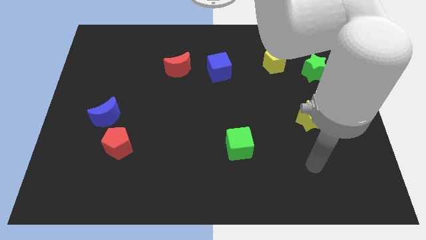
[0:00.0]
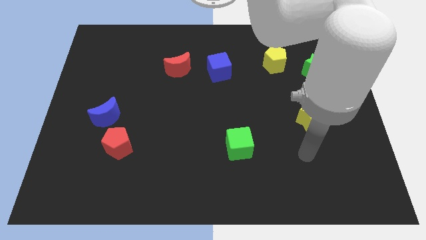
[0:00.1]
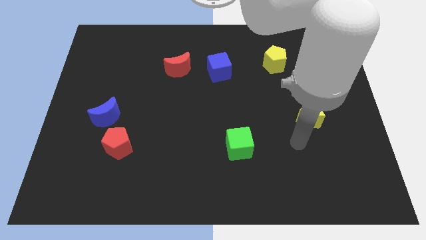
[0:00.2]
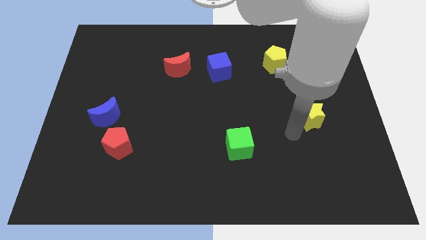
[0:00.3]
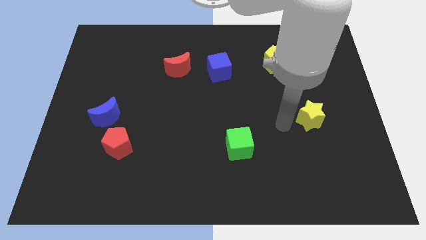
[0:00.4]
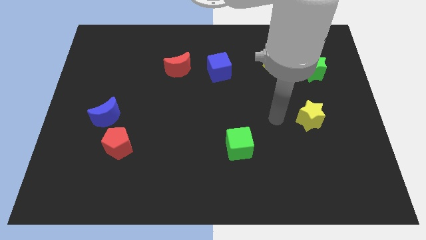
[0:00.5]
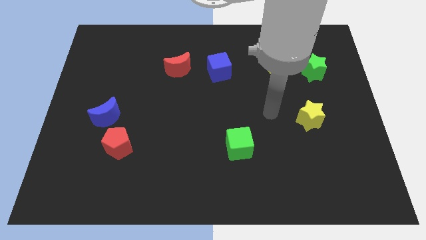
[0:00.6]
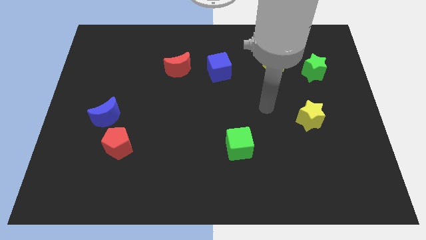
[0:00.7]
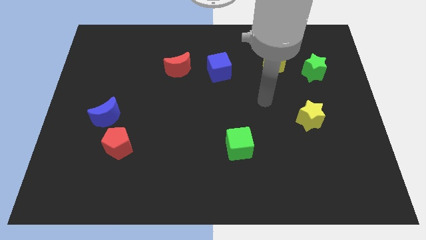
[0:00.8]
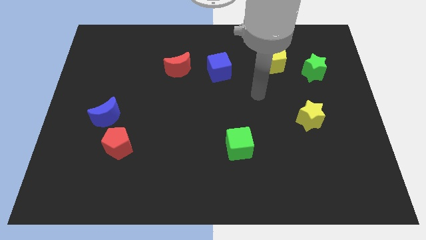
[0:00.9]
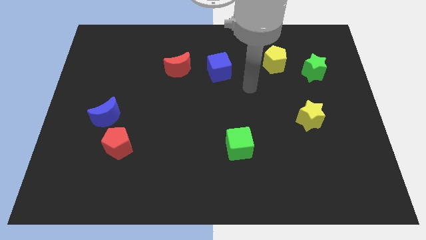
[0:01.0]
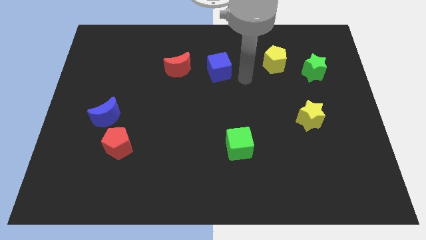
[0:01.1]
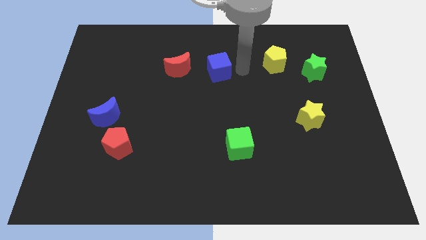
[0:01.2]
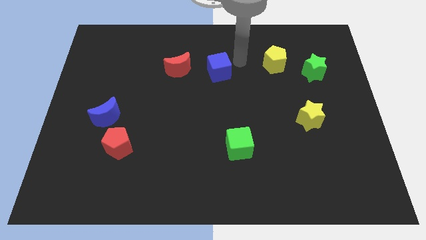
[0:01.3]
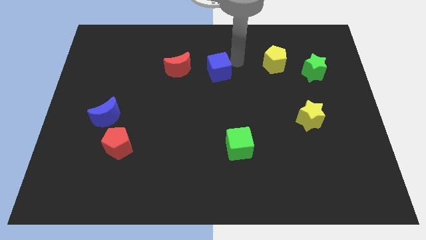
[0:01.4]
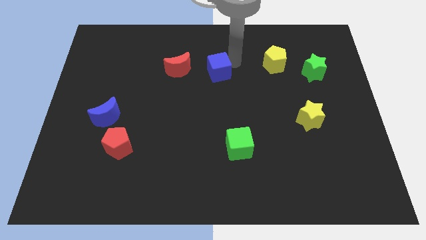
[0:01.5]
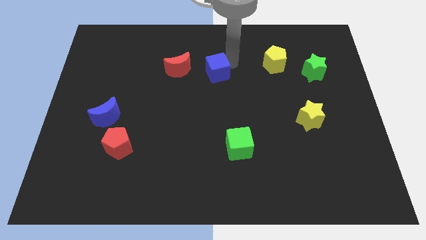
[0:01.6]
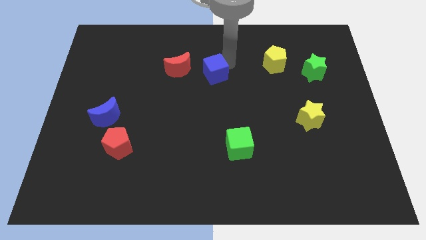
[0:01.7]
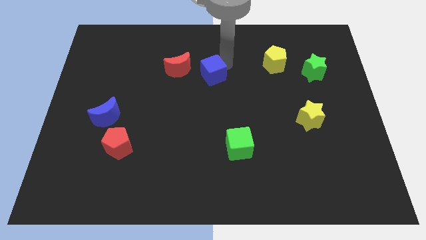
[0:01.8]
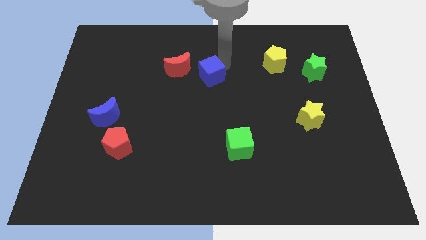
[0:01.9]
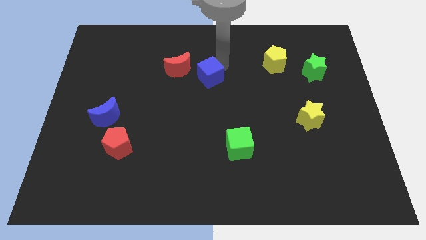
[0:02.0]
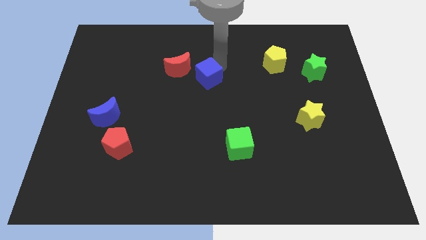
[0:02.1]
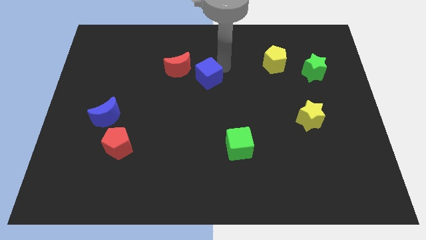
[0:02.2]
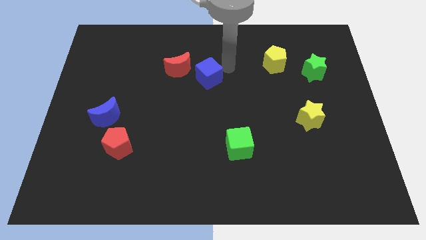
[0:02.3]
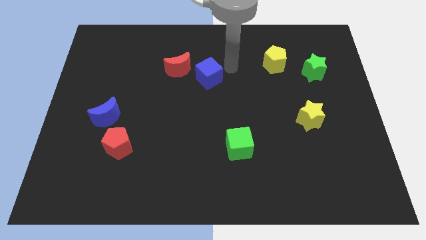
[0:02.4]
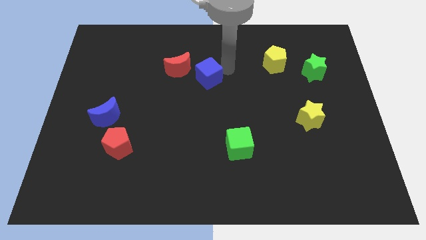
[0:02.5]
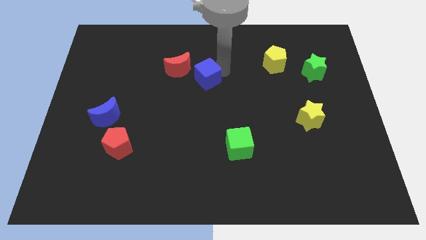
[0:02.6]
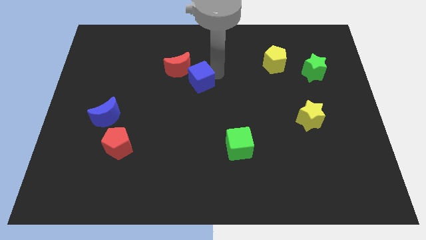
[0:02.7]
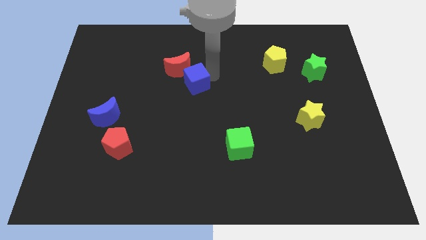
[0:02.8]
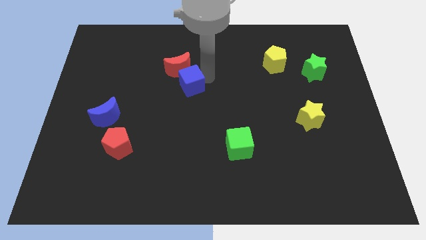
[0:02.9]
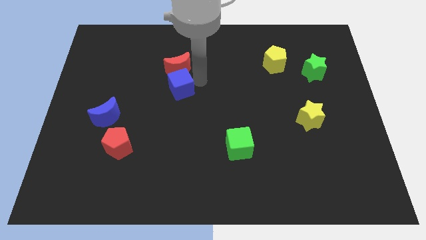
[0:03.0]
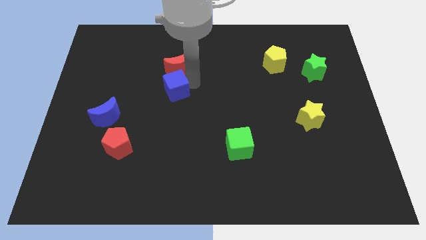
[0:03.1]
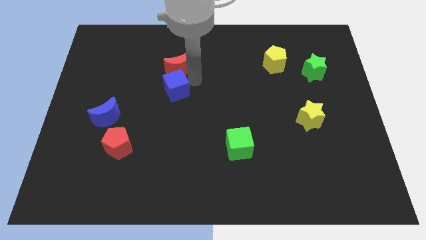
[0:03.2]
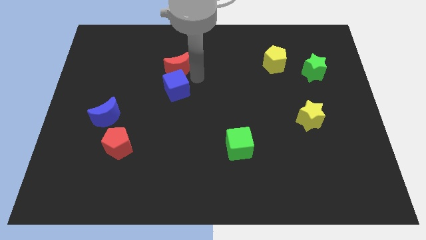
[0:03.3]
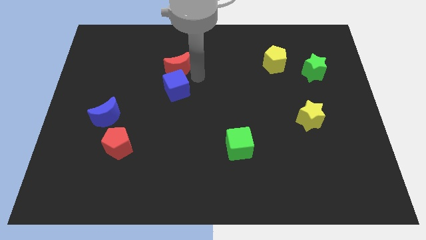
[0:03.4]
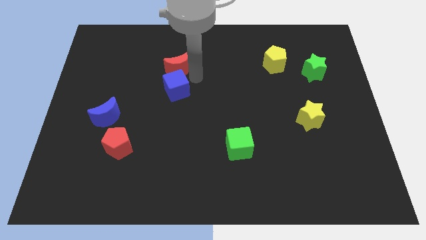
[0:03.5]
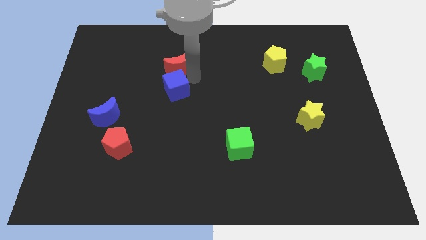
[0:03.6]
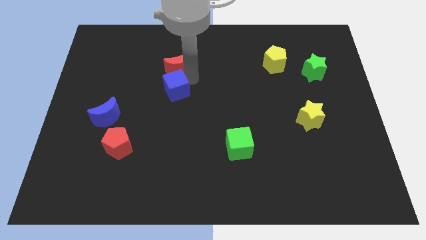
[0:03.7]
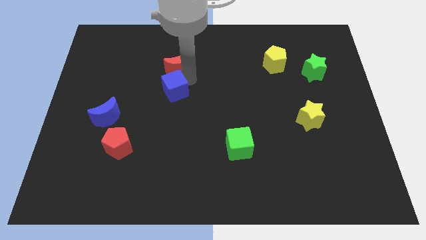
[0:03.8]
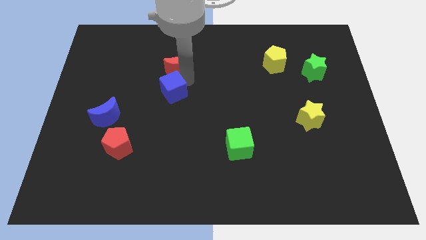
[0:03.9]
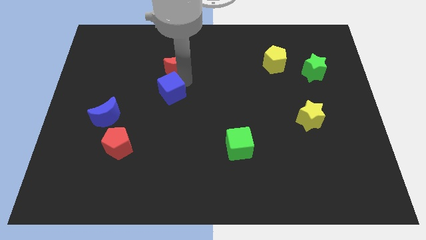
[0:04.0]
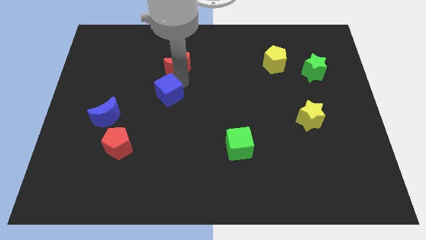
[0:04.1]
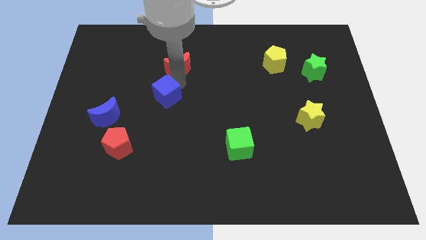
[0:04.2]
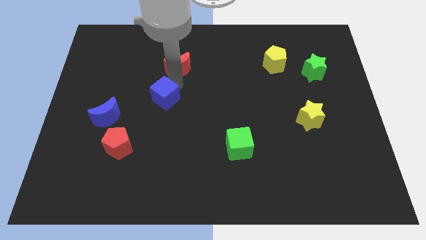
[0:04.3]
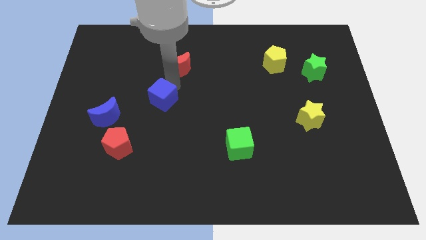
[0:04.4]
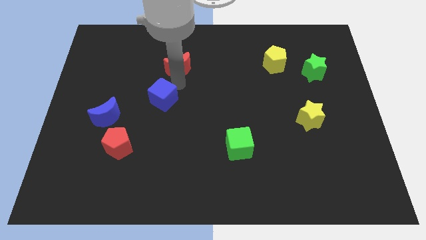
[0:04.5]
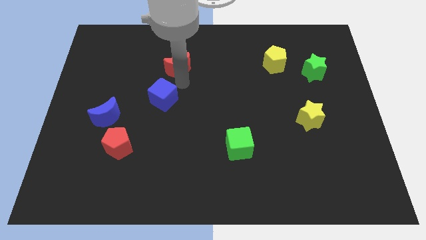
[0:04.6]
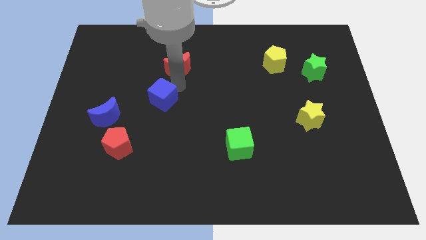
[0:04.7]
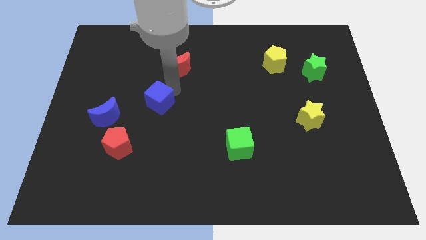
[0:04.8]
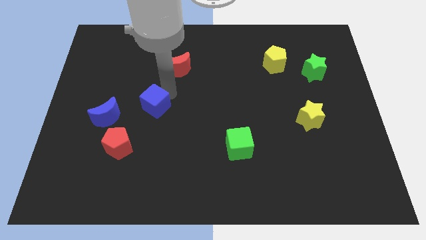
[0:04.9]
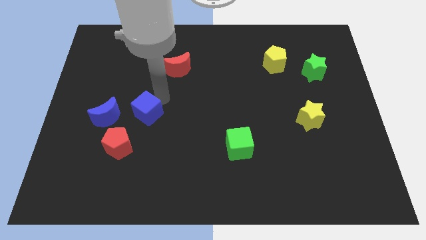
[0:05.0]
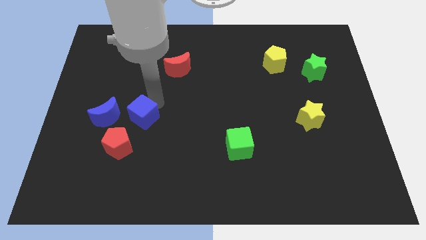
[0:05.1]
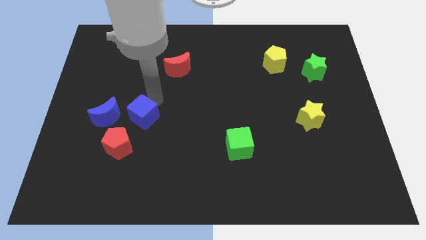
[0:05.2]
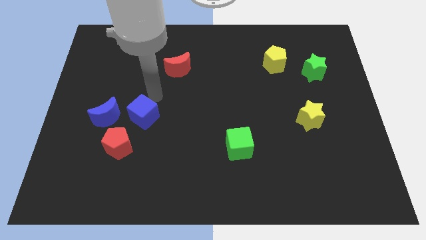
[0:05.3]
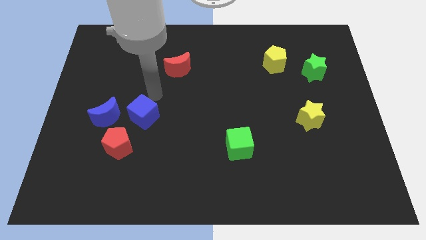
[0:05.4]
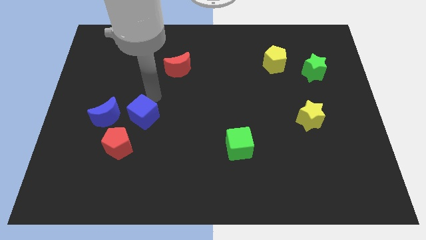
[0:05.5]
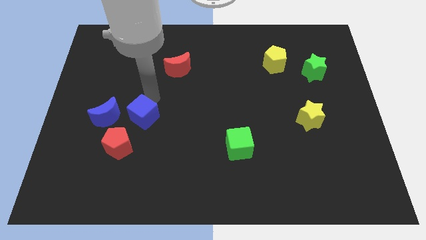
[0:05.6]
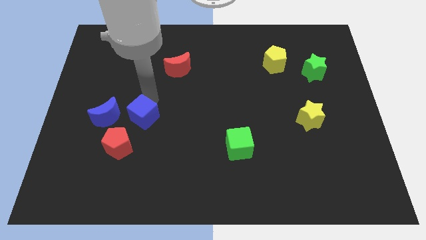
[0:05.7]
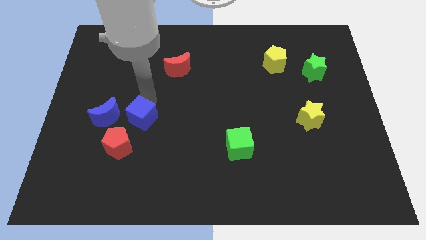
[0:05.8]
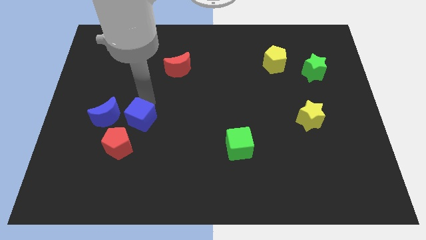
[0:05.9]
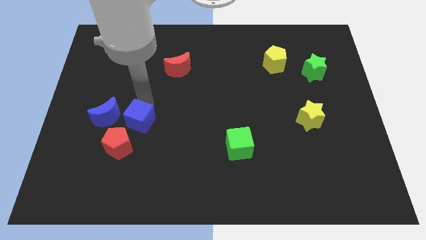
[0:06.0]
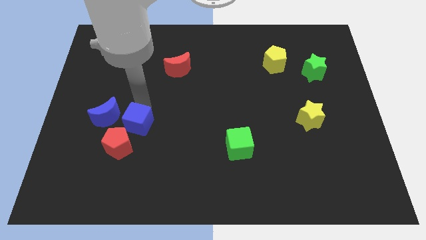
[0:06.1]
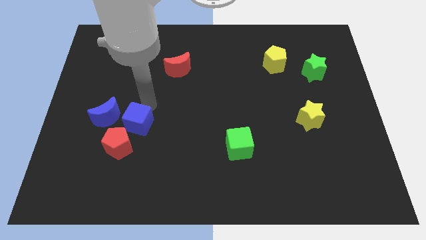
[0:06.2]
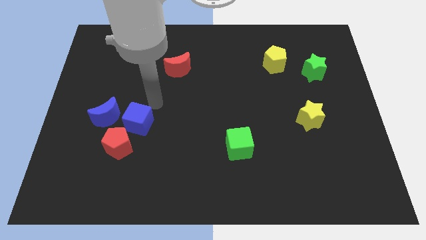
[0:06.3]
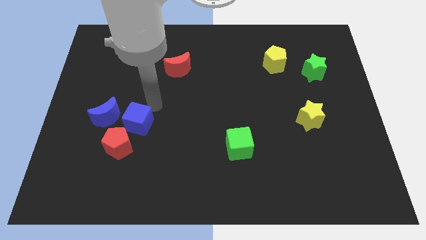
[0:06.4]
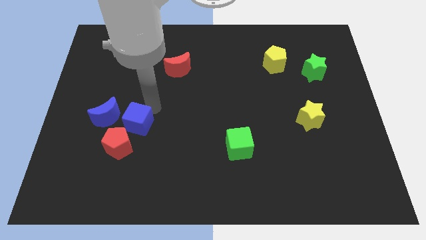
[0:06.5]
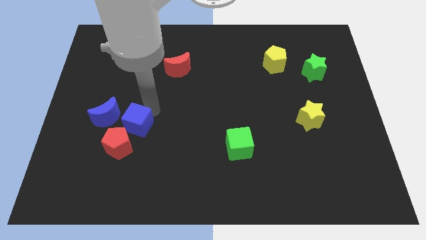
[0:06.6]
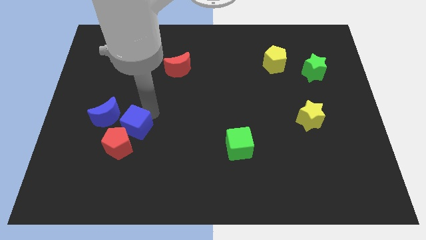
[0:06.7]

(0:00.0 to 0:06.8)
slide the blue cube close to the red pentagon

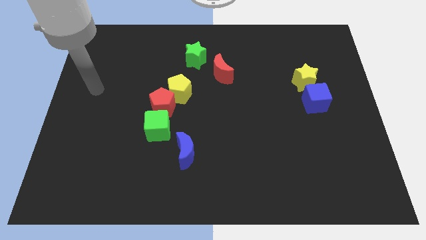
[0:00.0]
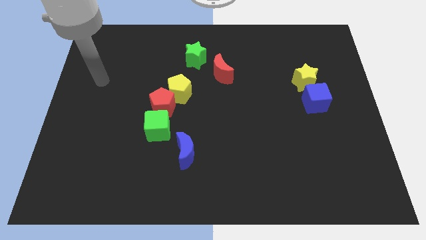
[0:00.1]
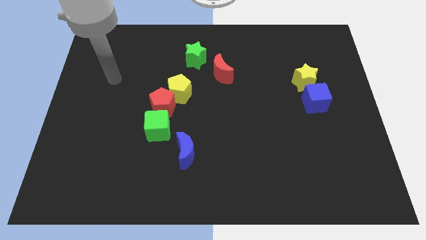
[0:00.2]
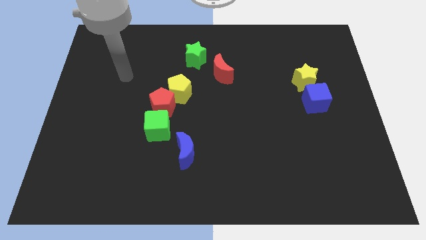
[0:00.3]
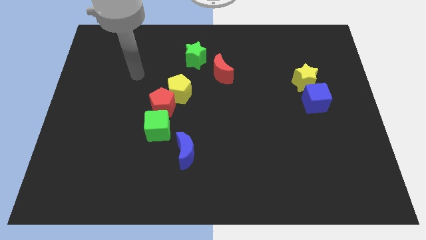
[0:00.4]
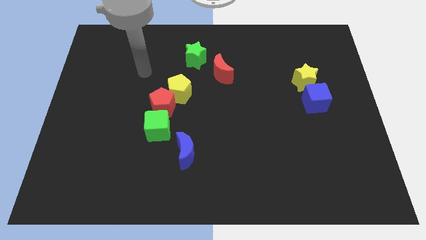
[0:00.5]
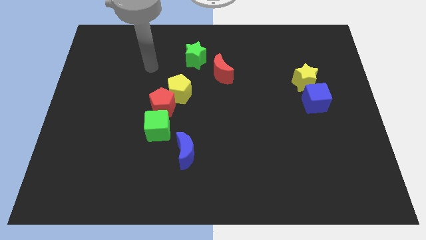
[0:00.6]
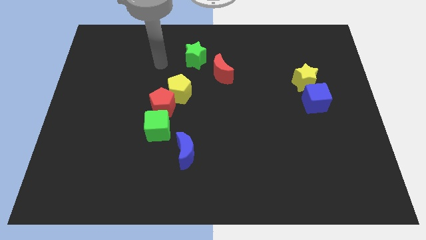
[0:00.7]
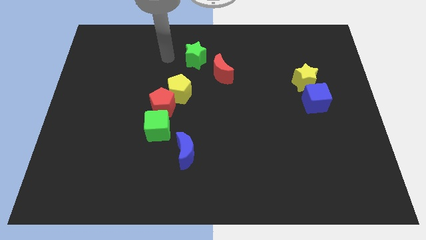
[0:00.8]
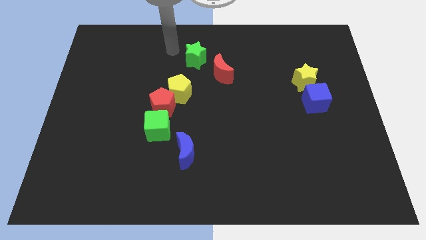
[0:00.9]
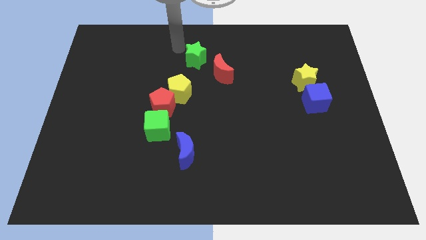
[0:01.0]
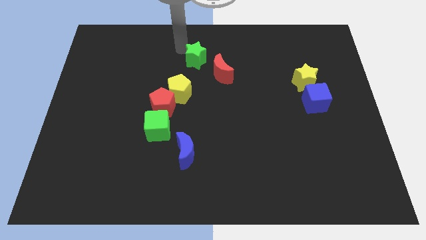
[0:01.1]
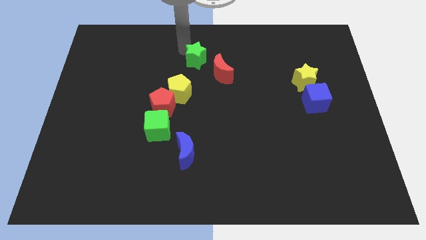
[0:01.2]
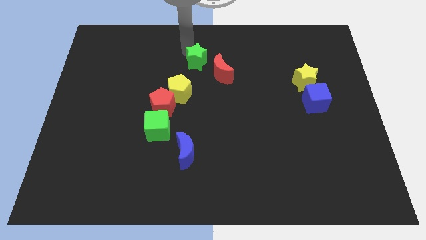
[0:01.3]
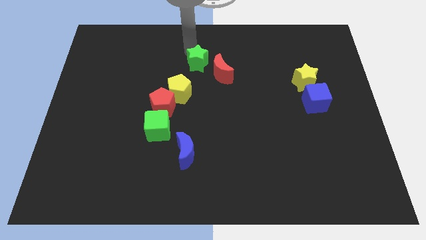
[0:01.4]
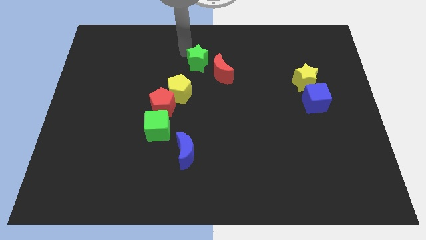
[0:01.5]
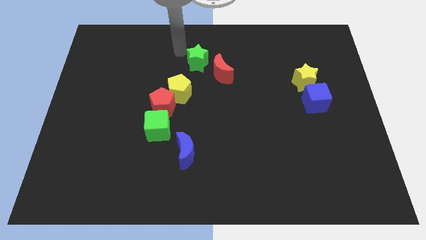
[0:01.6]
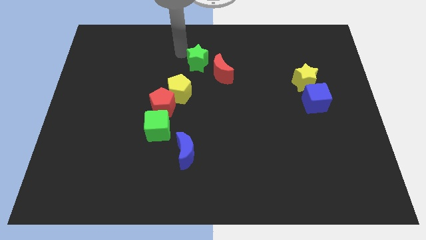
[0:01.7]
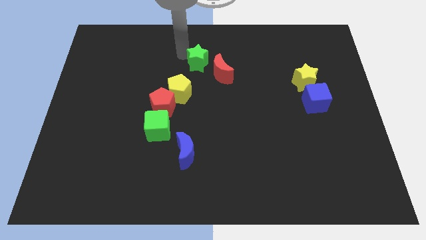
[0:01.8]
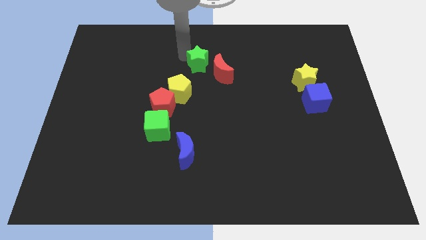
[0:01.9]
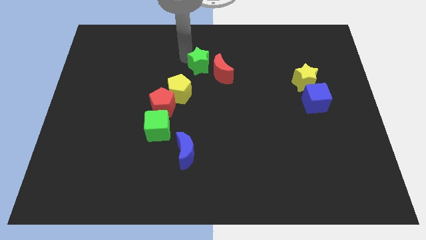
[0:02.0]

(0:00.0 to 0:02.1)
push the green star to the red moon
